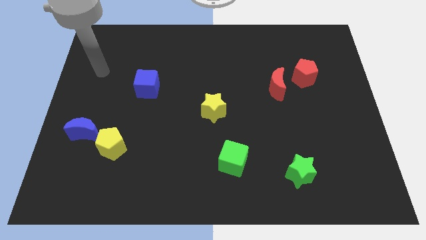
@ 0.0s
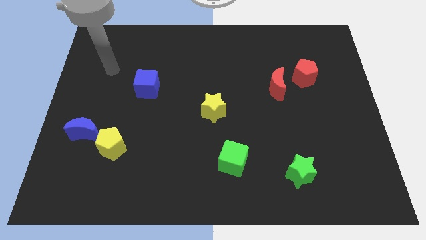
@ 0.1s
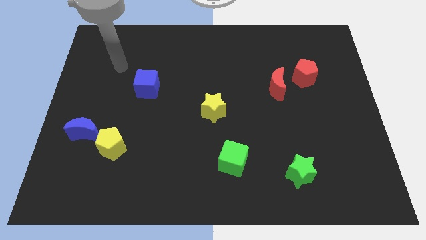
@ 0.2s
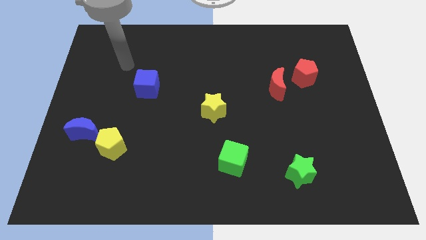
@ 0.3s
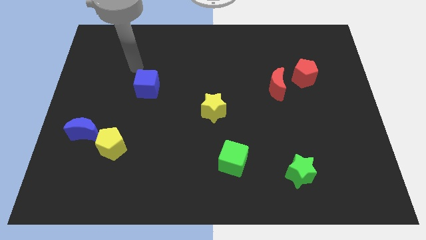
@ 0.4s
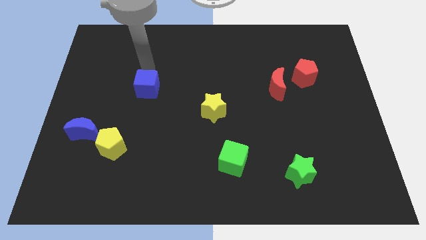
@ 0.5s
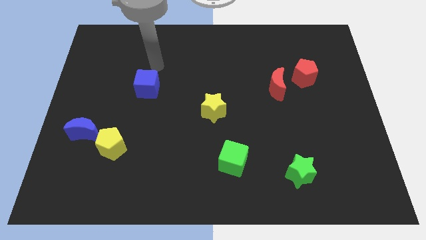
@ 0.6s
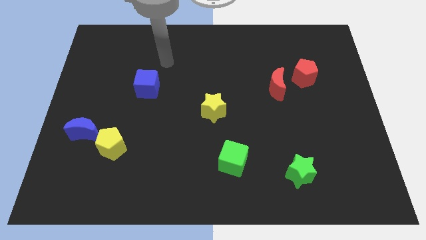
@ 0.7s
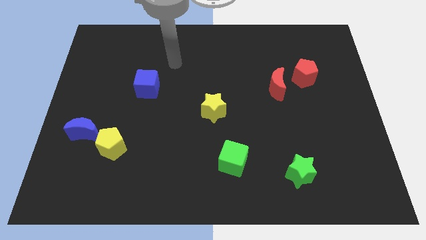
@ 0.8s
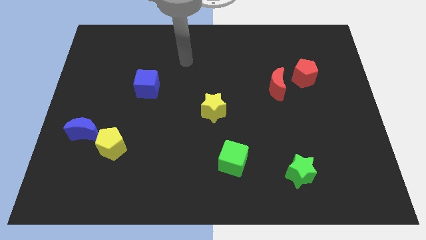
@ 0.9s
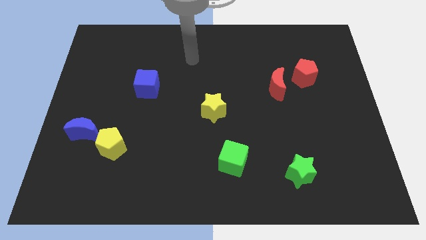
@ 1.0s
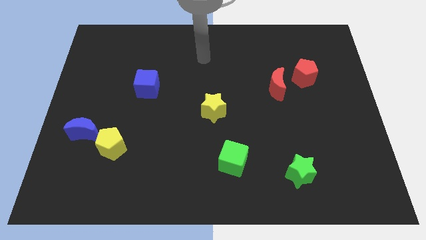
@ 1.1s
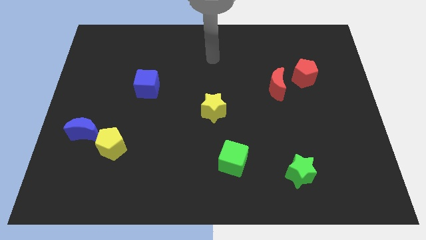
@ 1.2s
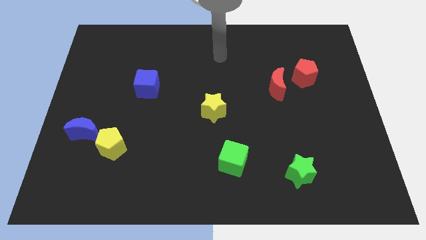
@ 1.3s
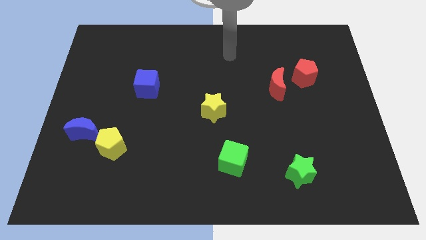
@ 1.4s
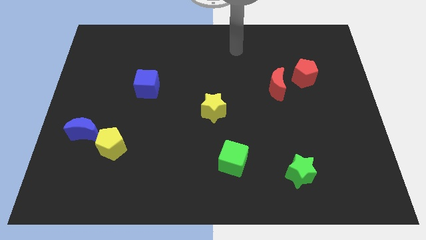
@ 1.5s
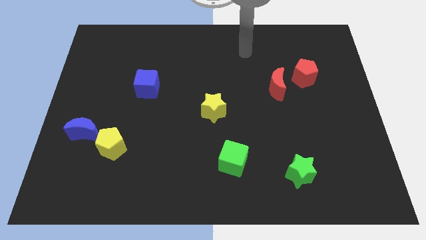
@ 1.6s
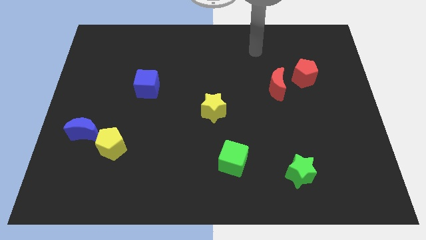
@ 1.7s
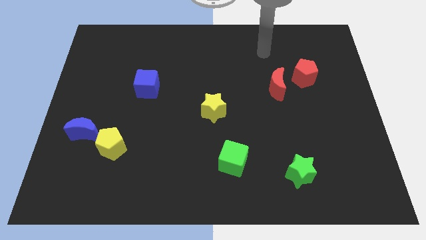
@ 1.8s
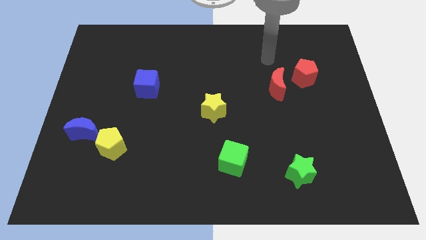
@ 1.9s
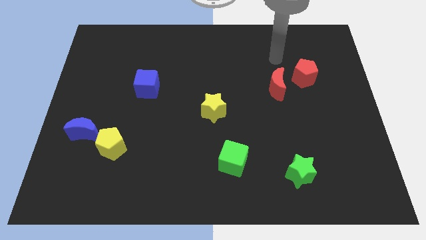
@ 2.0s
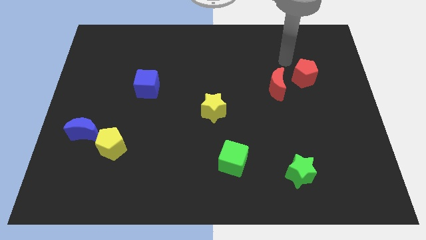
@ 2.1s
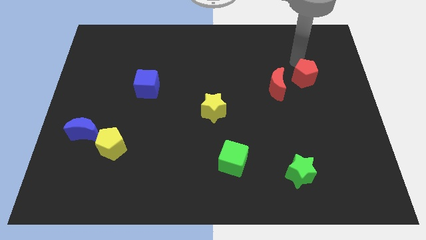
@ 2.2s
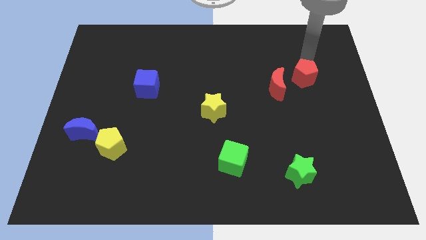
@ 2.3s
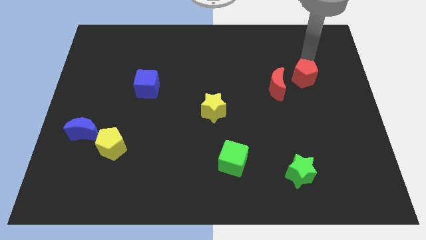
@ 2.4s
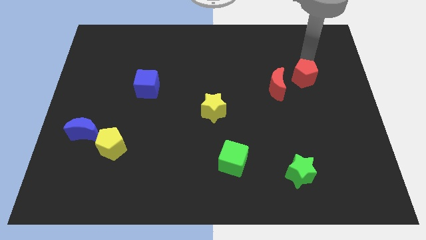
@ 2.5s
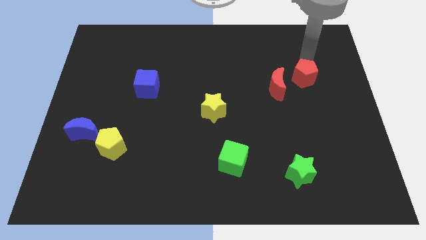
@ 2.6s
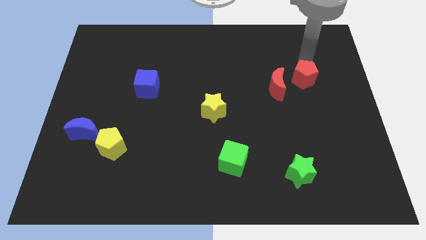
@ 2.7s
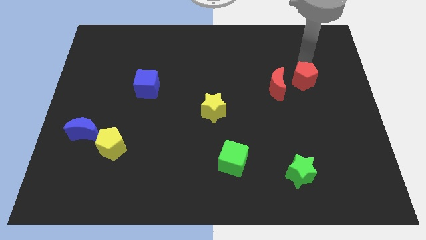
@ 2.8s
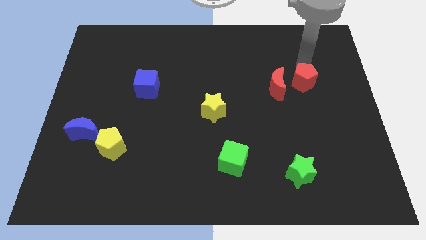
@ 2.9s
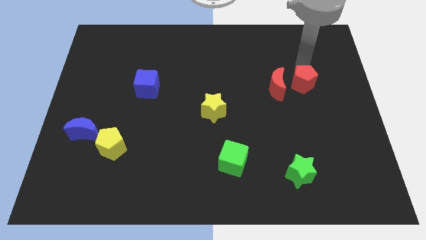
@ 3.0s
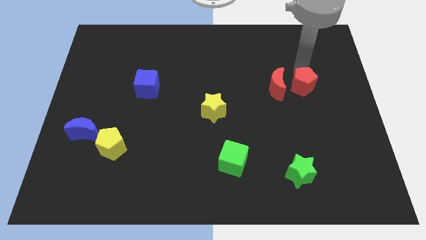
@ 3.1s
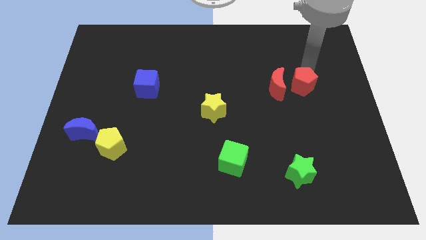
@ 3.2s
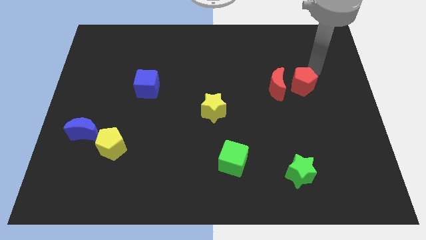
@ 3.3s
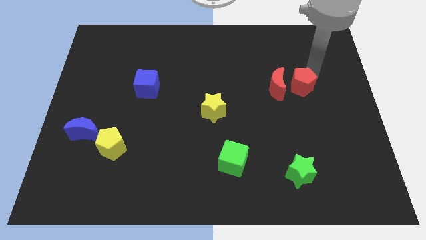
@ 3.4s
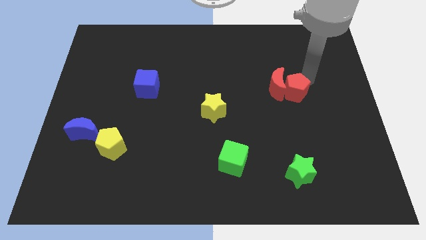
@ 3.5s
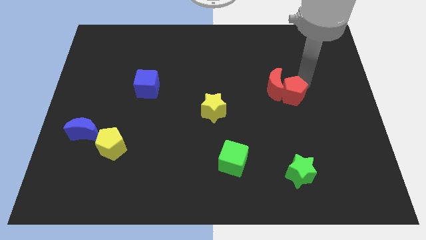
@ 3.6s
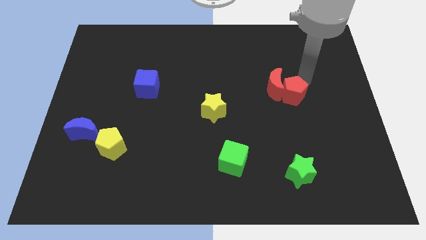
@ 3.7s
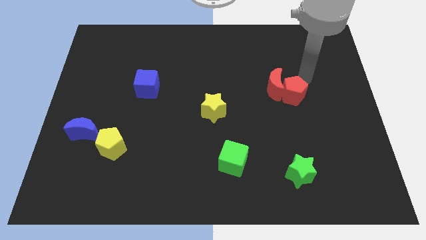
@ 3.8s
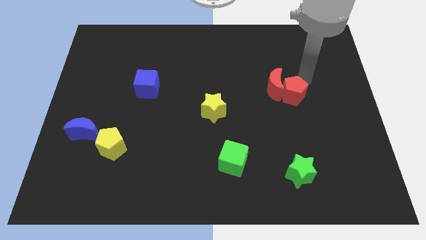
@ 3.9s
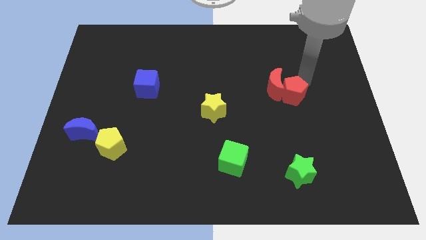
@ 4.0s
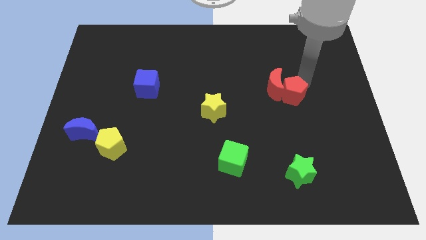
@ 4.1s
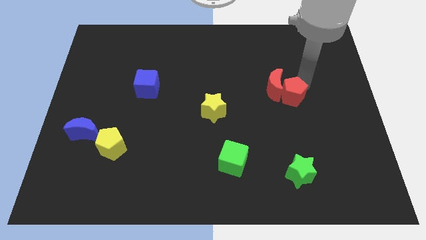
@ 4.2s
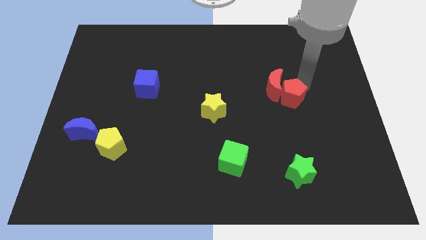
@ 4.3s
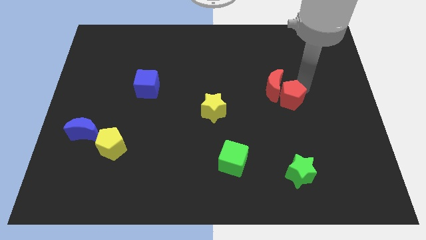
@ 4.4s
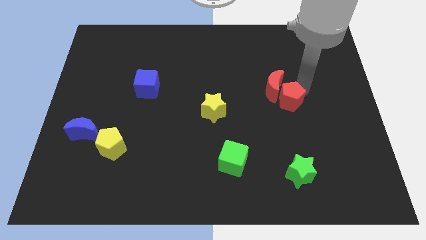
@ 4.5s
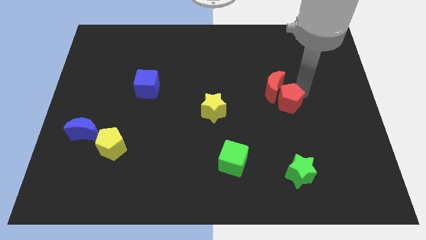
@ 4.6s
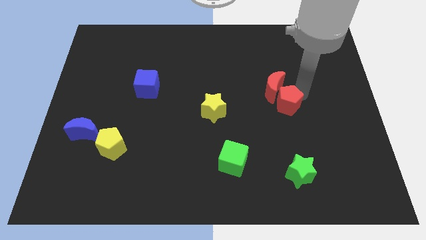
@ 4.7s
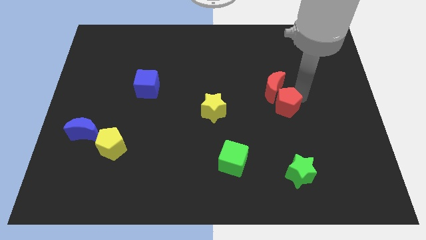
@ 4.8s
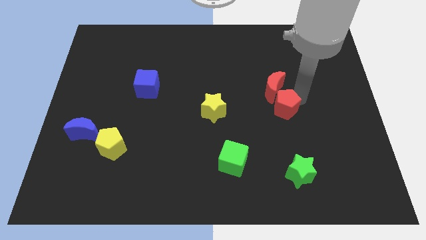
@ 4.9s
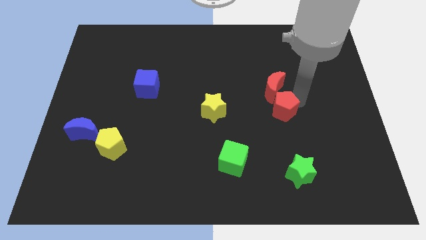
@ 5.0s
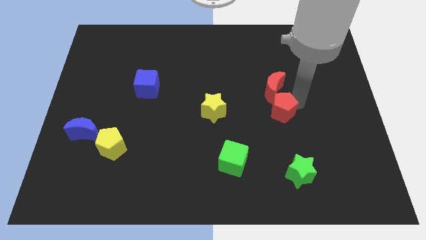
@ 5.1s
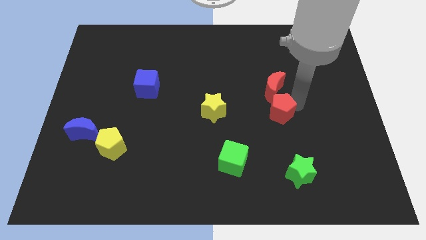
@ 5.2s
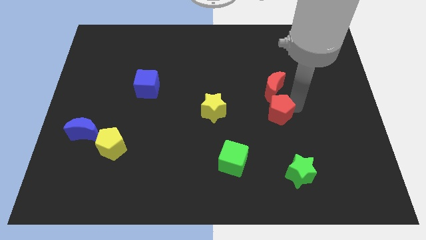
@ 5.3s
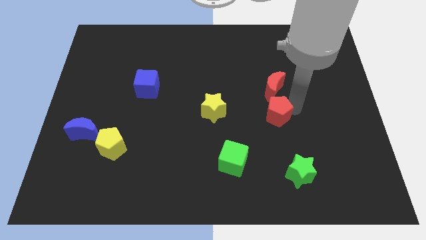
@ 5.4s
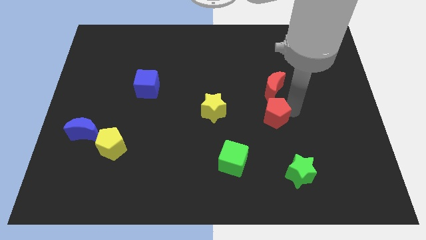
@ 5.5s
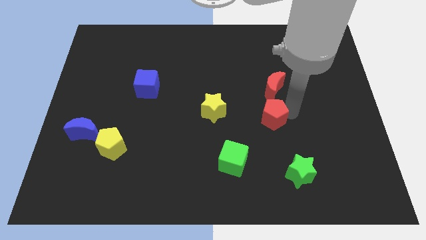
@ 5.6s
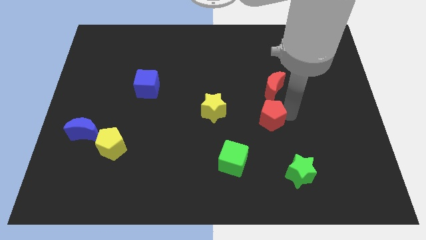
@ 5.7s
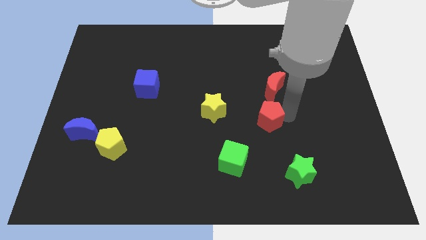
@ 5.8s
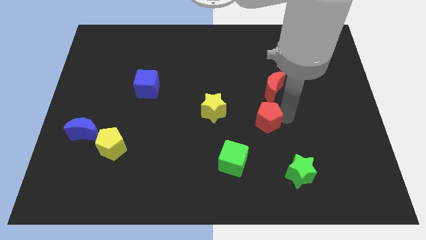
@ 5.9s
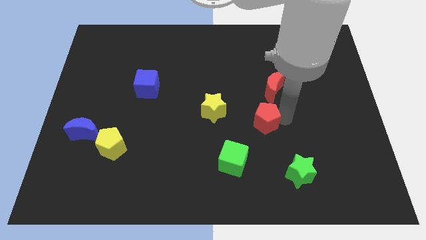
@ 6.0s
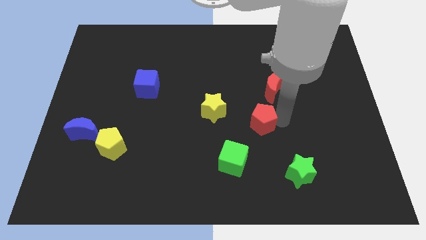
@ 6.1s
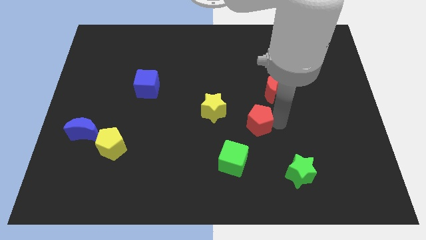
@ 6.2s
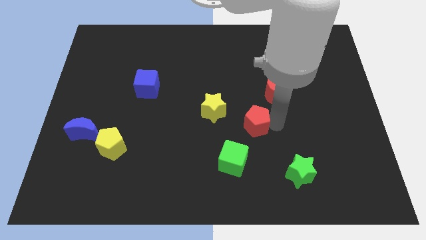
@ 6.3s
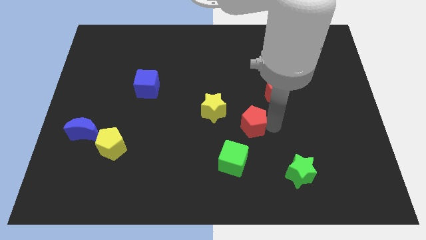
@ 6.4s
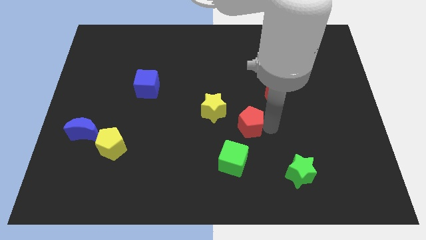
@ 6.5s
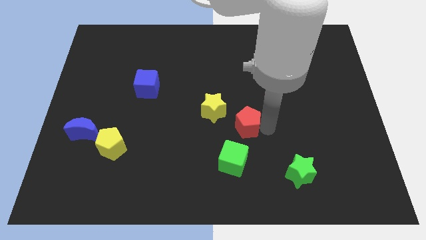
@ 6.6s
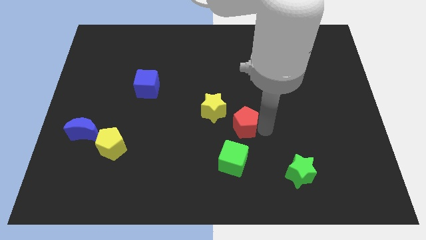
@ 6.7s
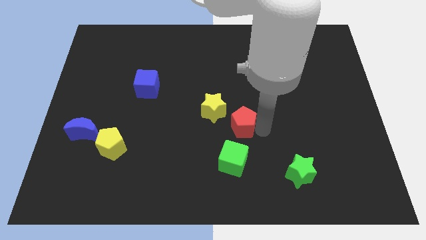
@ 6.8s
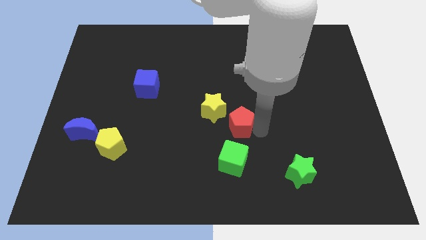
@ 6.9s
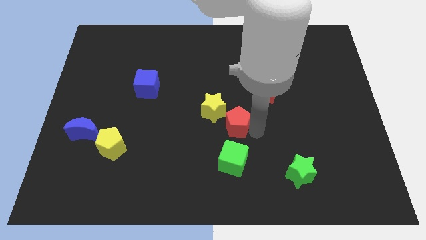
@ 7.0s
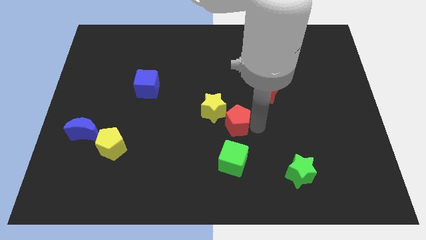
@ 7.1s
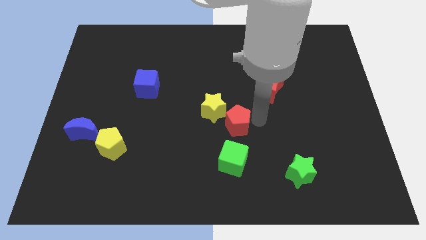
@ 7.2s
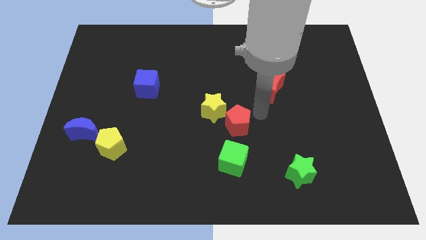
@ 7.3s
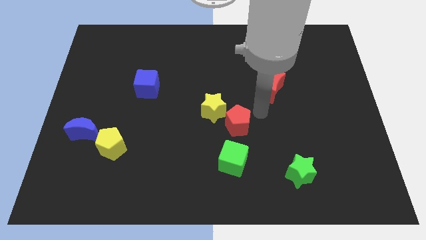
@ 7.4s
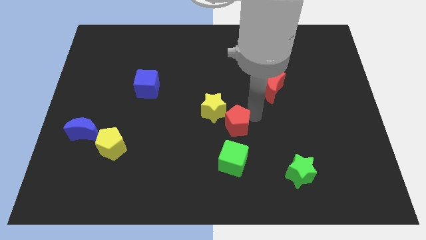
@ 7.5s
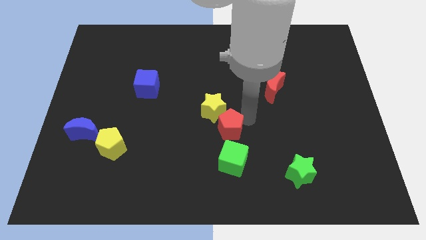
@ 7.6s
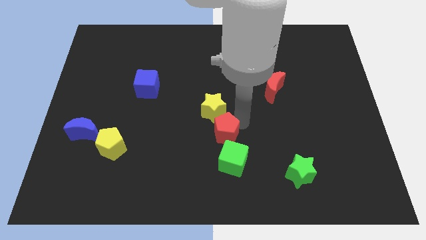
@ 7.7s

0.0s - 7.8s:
slide the red pentagon to the top left side of the green cube
